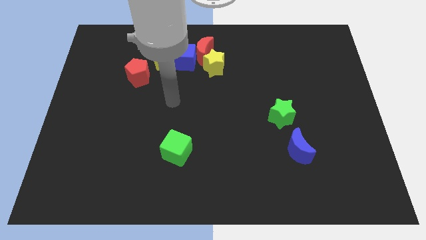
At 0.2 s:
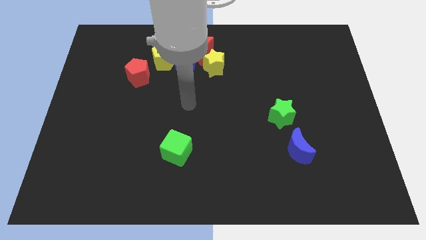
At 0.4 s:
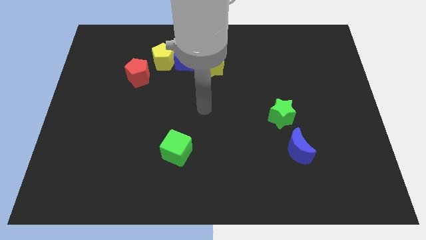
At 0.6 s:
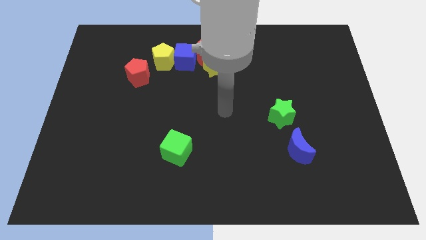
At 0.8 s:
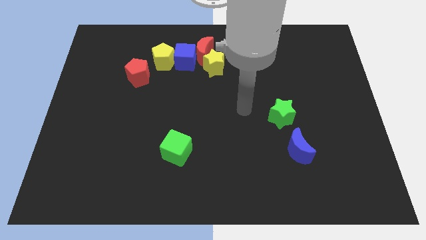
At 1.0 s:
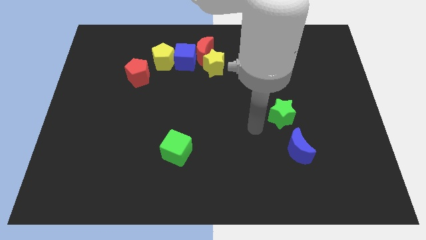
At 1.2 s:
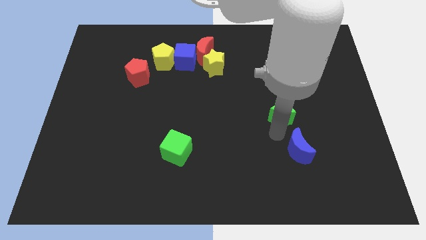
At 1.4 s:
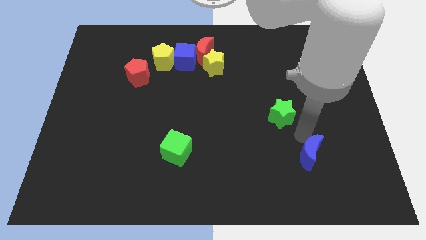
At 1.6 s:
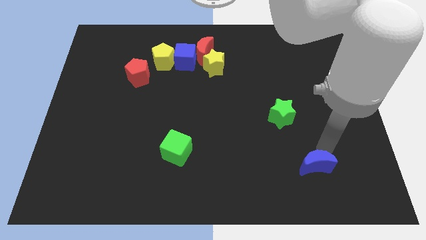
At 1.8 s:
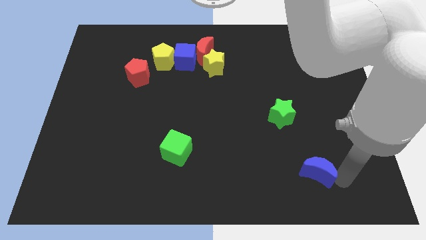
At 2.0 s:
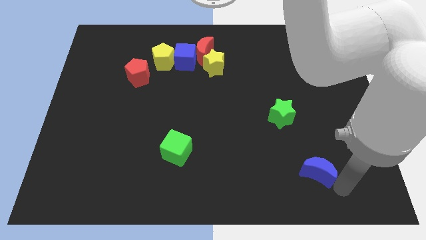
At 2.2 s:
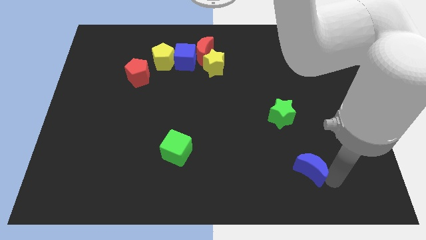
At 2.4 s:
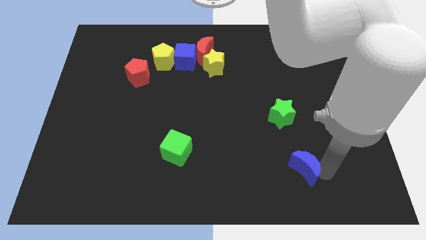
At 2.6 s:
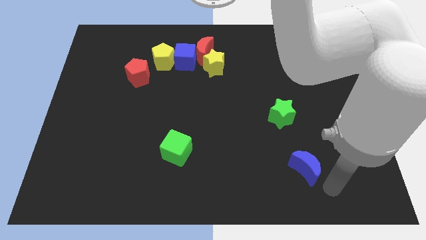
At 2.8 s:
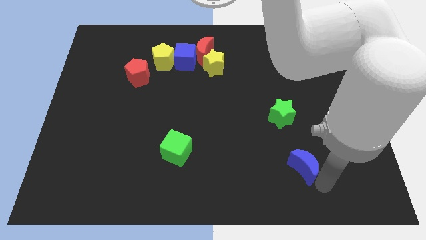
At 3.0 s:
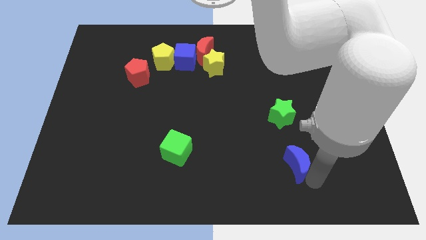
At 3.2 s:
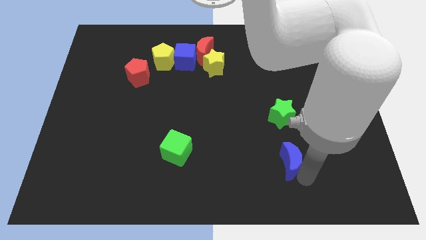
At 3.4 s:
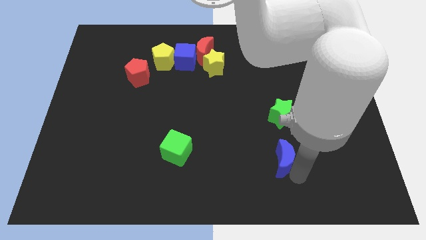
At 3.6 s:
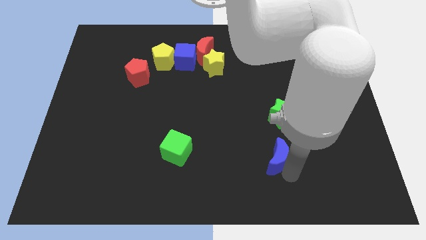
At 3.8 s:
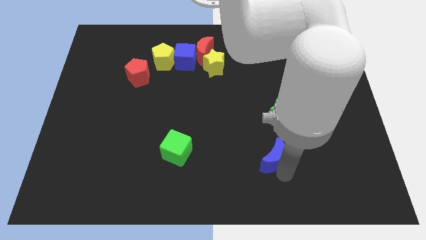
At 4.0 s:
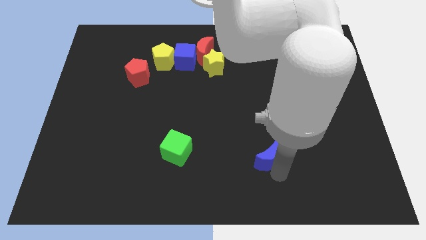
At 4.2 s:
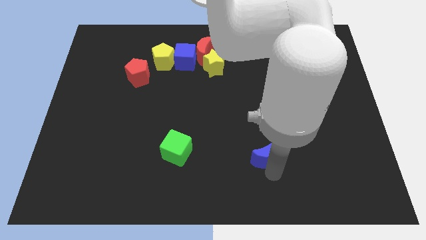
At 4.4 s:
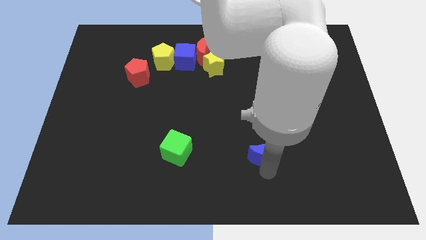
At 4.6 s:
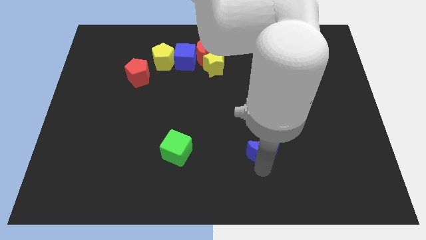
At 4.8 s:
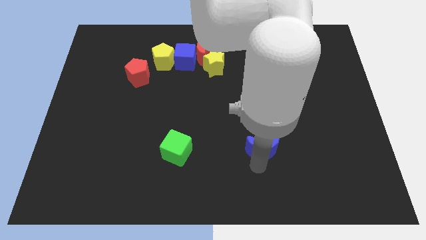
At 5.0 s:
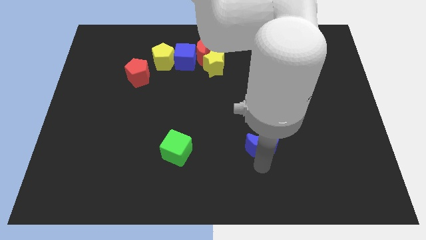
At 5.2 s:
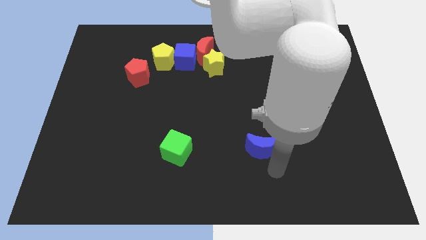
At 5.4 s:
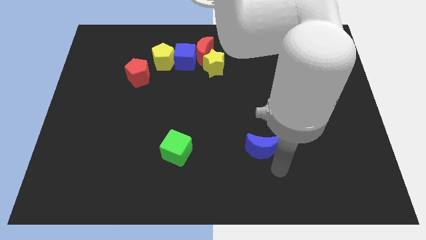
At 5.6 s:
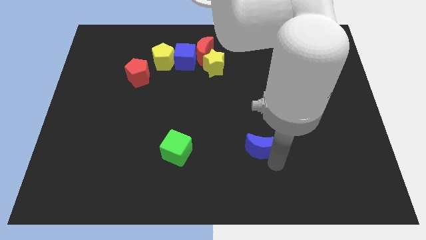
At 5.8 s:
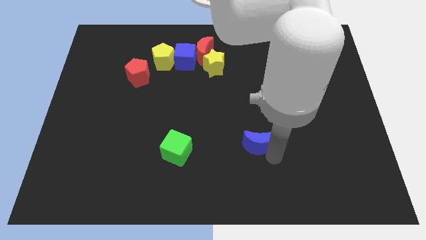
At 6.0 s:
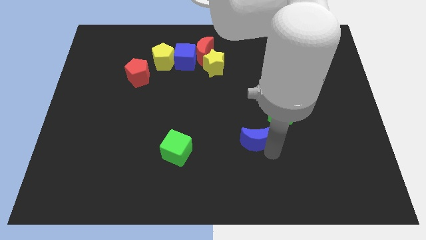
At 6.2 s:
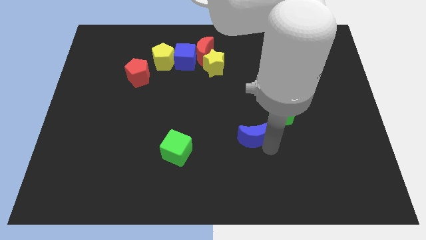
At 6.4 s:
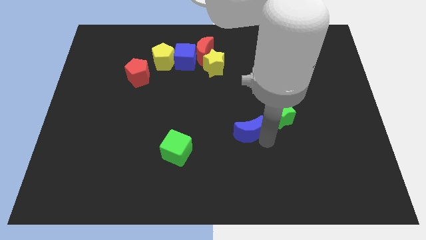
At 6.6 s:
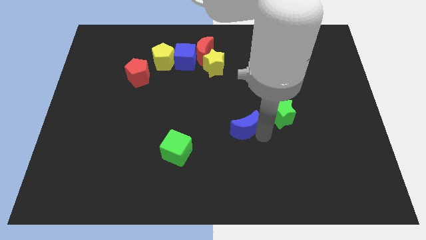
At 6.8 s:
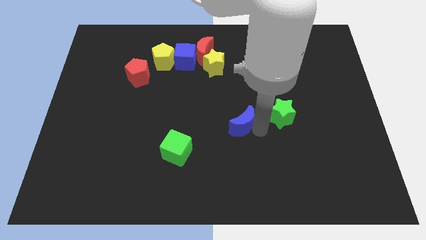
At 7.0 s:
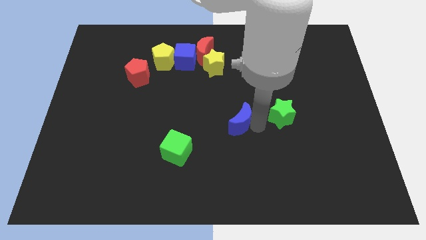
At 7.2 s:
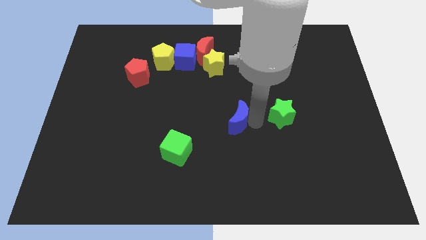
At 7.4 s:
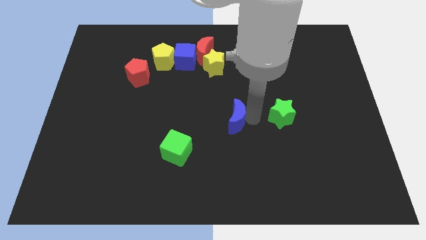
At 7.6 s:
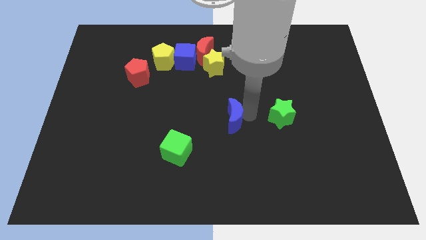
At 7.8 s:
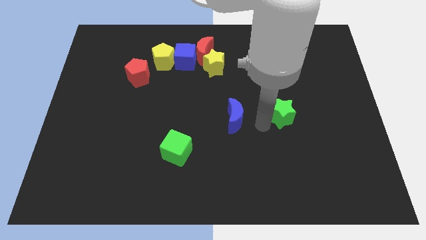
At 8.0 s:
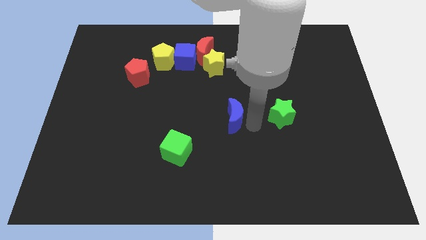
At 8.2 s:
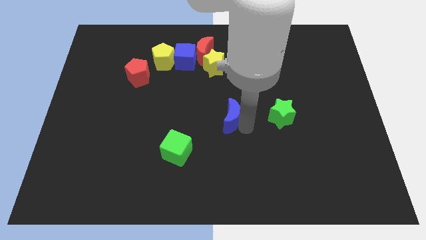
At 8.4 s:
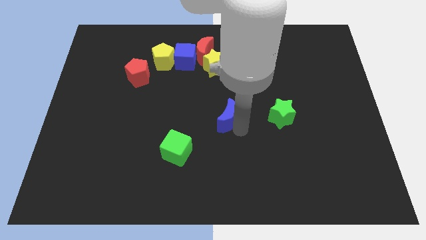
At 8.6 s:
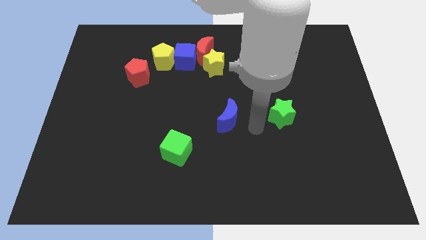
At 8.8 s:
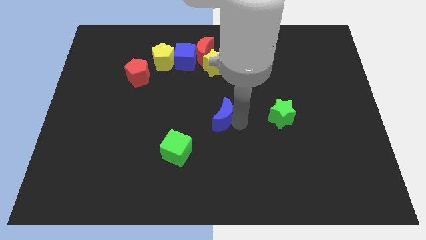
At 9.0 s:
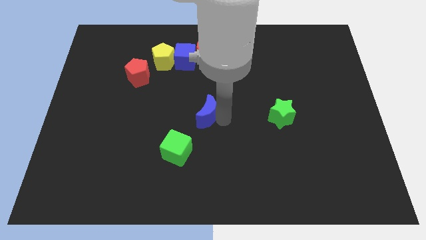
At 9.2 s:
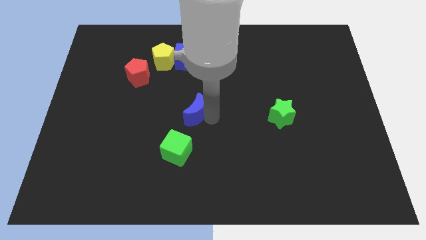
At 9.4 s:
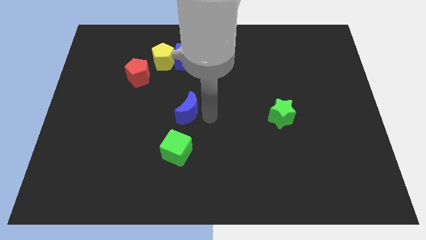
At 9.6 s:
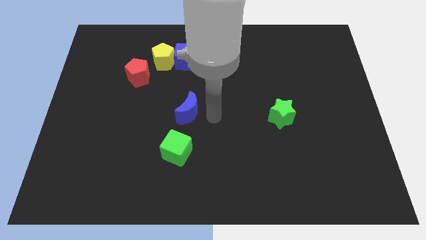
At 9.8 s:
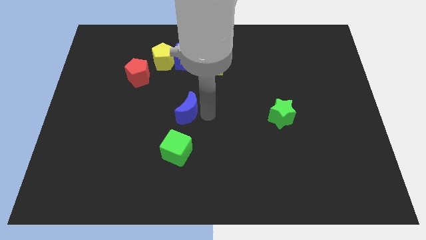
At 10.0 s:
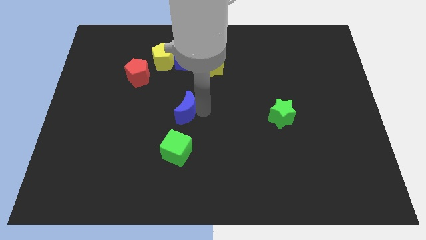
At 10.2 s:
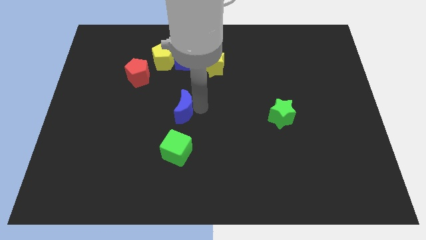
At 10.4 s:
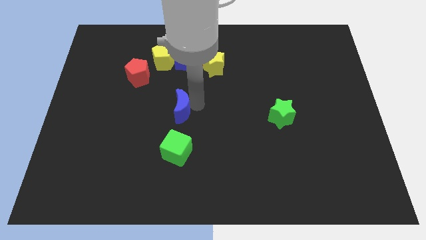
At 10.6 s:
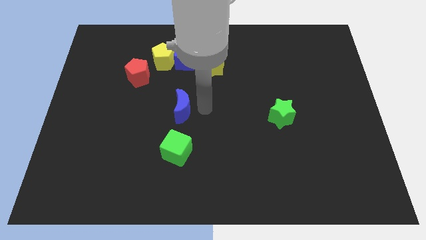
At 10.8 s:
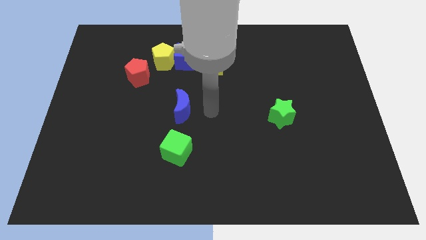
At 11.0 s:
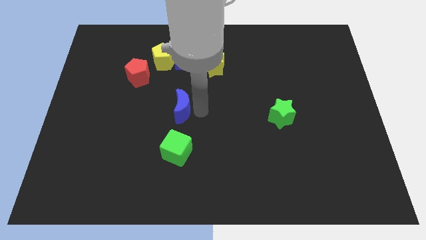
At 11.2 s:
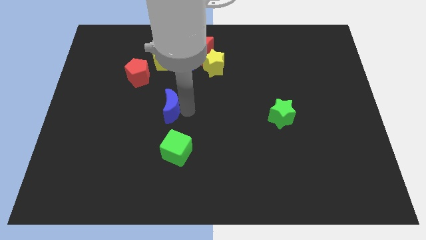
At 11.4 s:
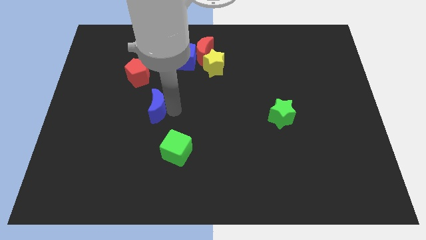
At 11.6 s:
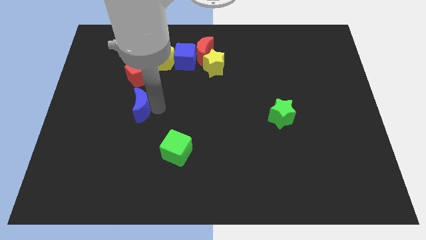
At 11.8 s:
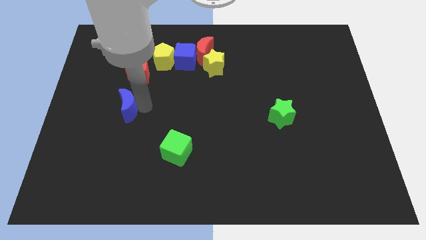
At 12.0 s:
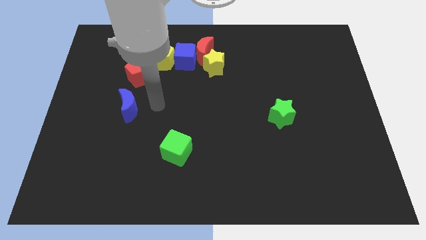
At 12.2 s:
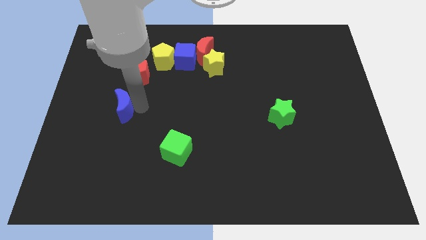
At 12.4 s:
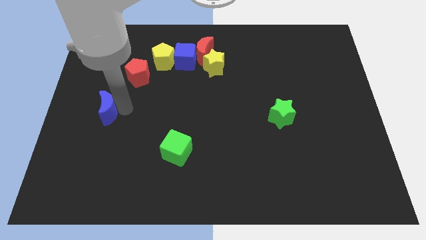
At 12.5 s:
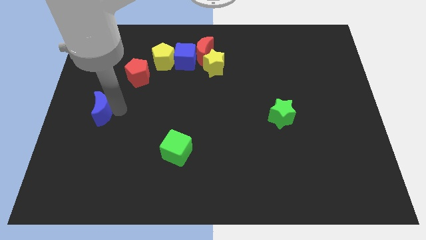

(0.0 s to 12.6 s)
push the blue moon to the left side of the board

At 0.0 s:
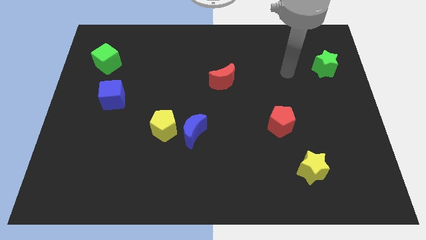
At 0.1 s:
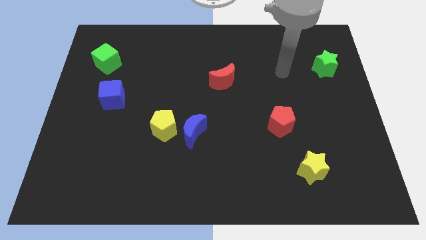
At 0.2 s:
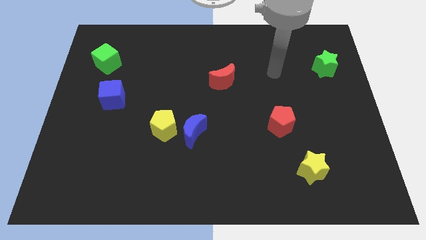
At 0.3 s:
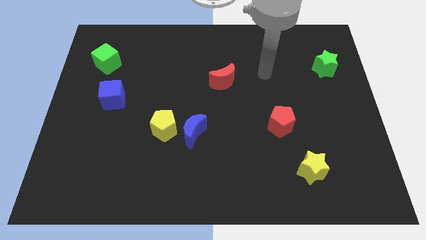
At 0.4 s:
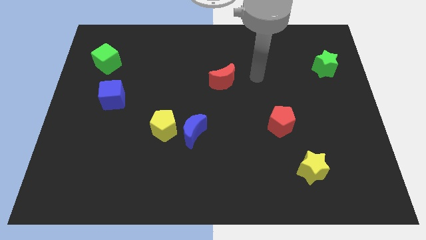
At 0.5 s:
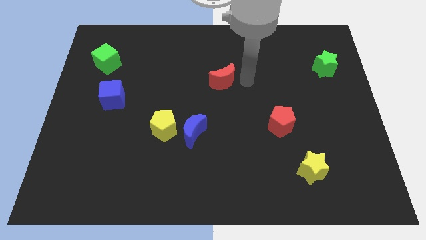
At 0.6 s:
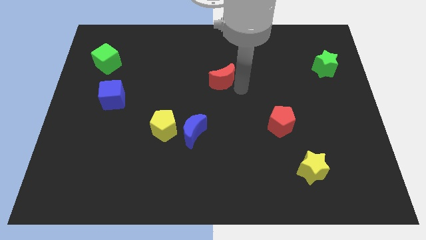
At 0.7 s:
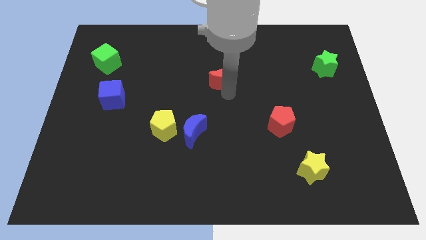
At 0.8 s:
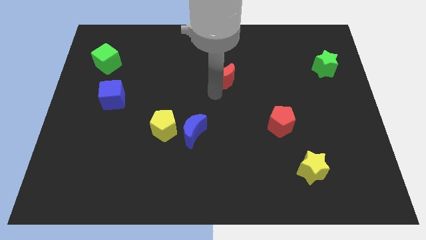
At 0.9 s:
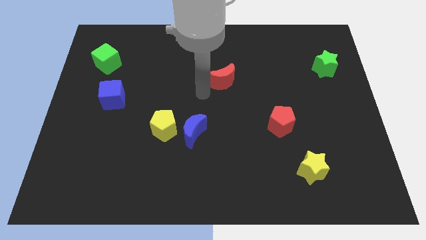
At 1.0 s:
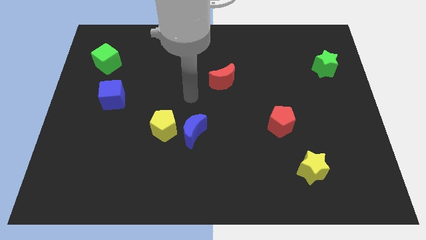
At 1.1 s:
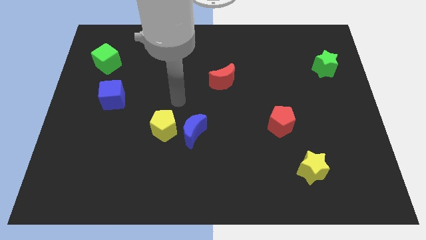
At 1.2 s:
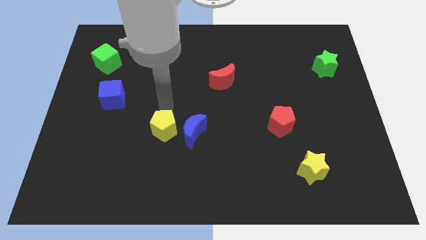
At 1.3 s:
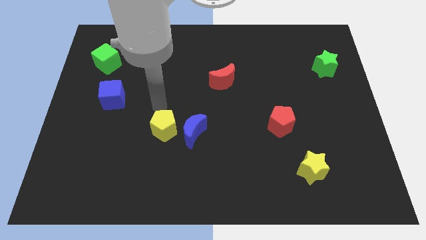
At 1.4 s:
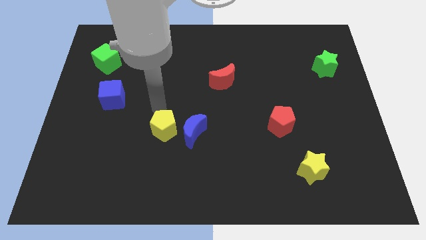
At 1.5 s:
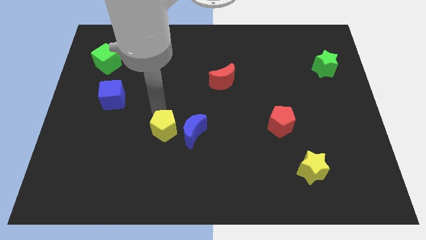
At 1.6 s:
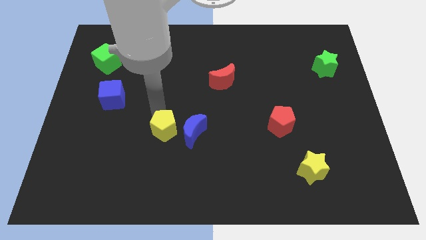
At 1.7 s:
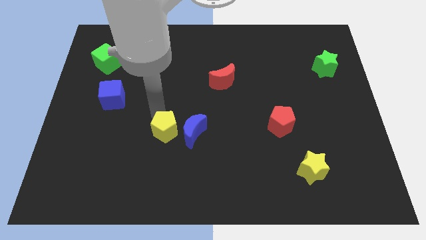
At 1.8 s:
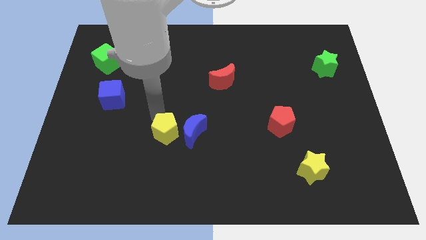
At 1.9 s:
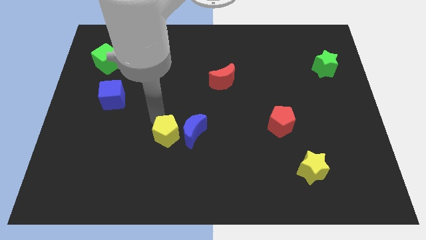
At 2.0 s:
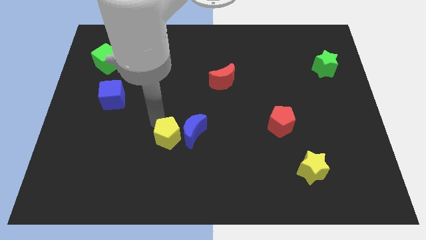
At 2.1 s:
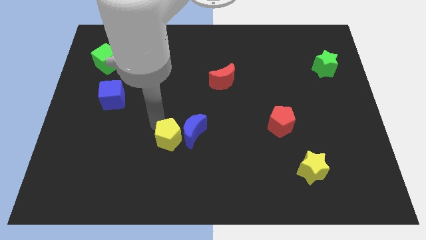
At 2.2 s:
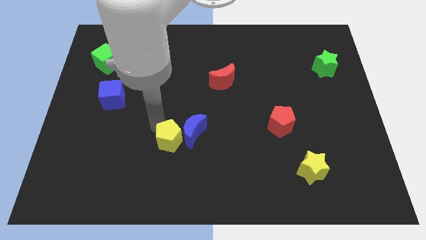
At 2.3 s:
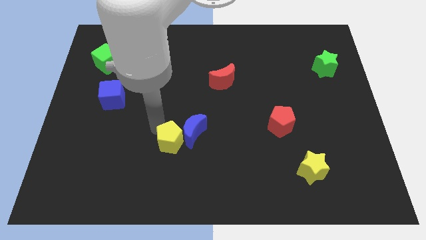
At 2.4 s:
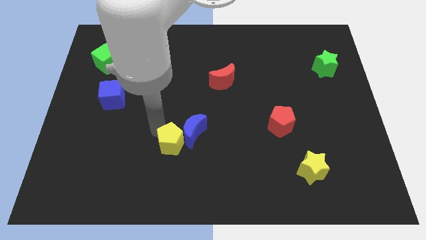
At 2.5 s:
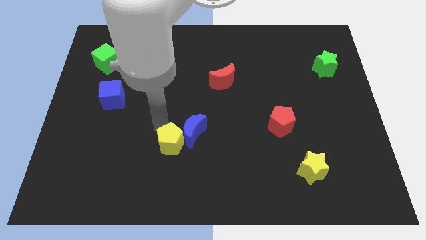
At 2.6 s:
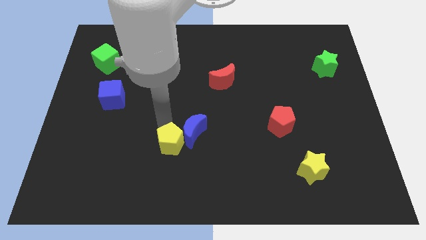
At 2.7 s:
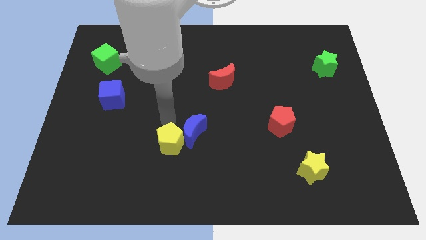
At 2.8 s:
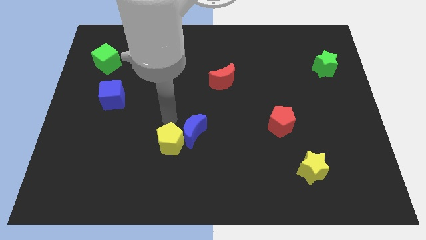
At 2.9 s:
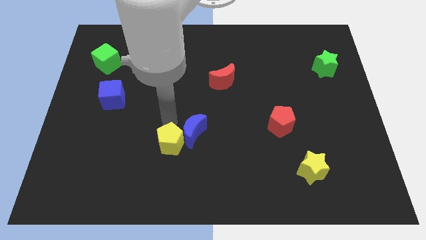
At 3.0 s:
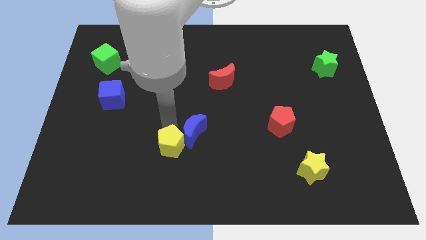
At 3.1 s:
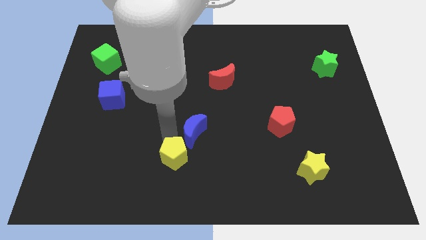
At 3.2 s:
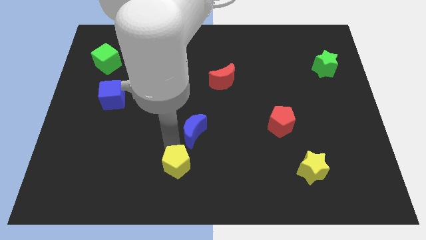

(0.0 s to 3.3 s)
put the yellow pentagon to the bottom side
